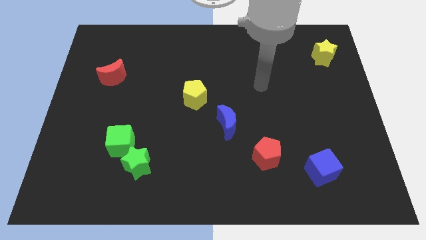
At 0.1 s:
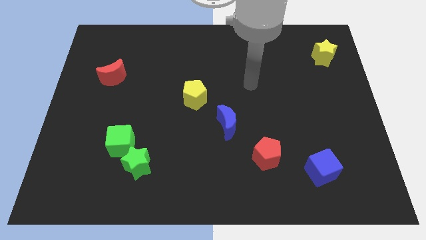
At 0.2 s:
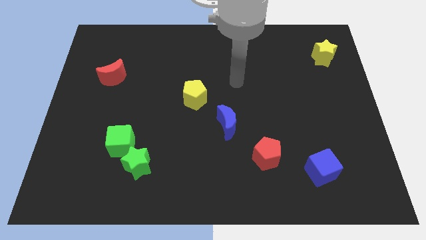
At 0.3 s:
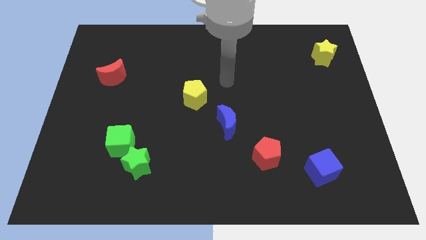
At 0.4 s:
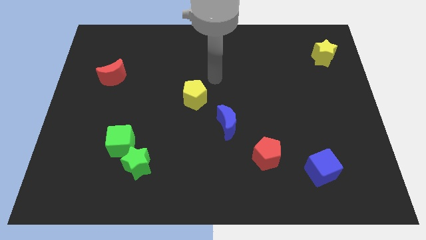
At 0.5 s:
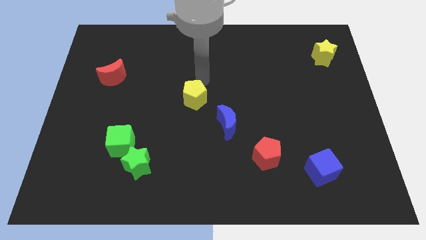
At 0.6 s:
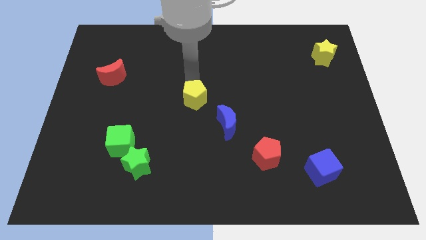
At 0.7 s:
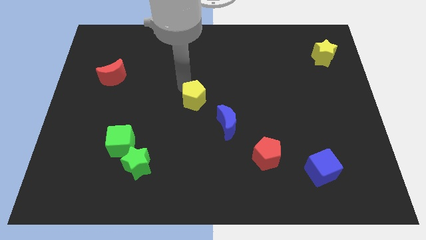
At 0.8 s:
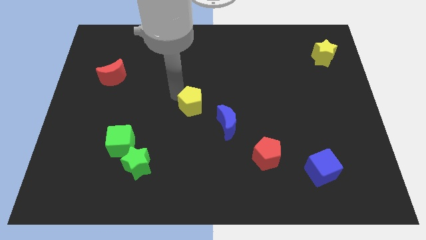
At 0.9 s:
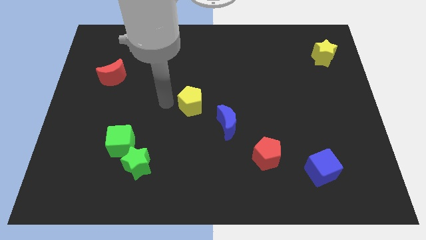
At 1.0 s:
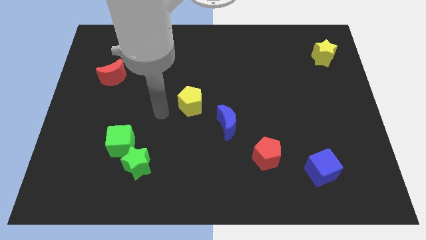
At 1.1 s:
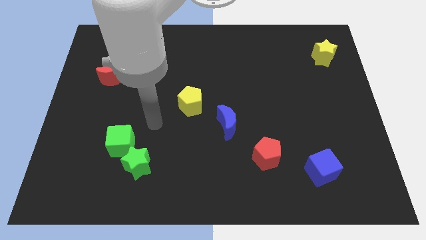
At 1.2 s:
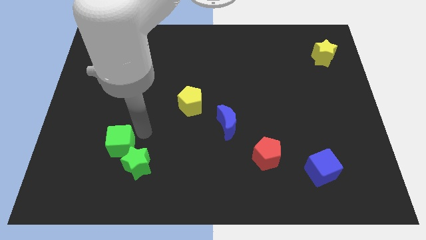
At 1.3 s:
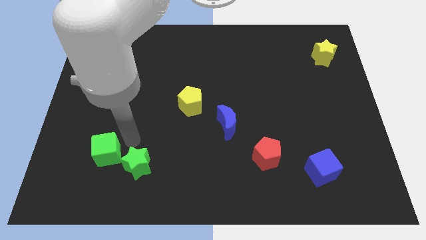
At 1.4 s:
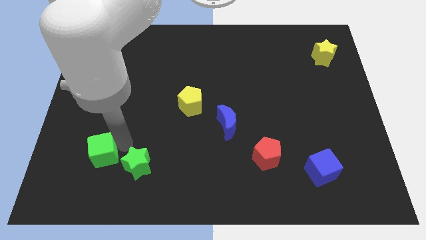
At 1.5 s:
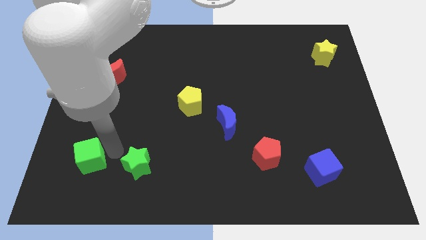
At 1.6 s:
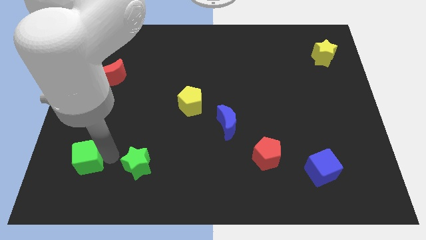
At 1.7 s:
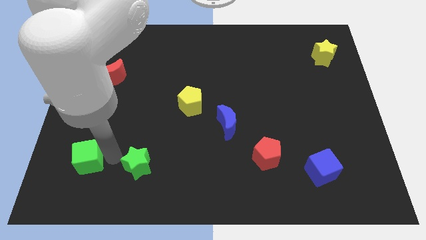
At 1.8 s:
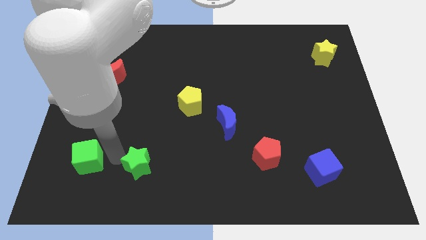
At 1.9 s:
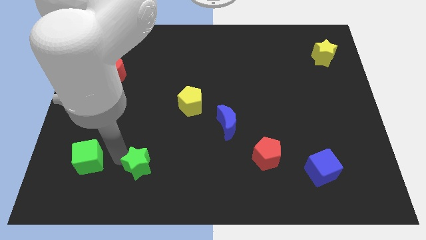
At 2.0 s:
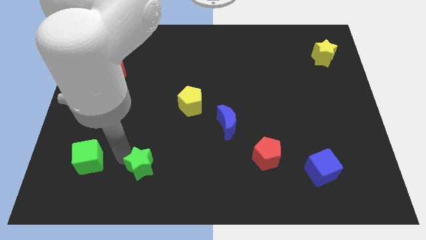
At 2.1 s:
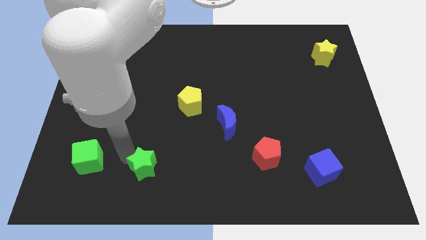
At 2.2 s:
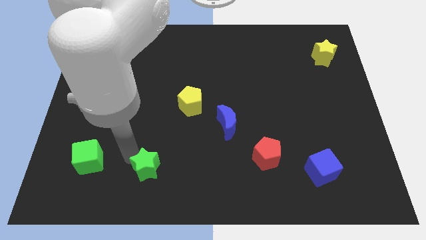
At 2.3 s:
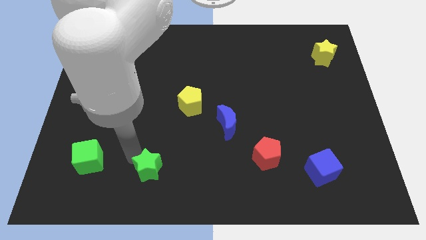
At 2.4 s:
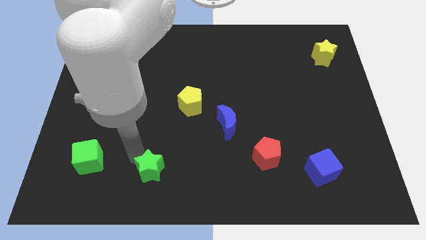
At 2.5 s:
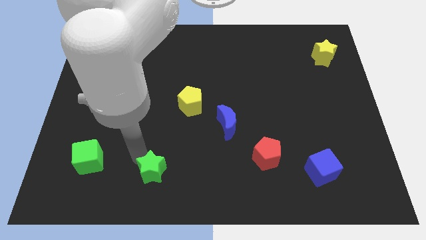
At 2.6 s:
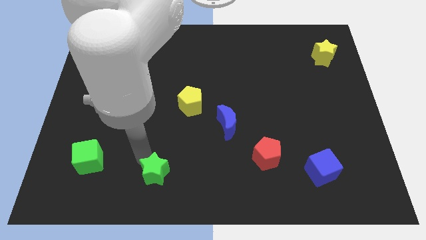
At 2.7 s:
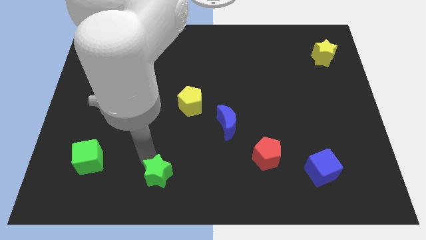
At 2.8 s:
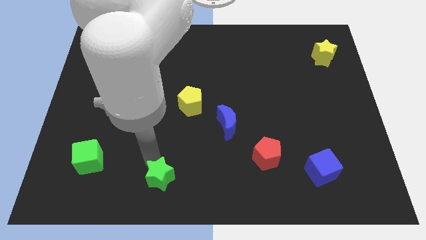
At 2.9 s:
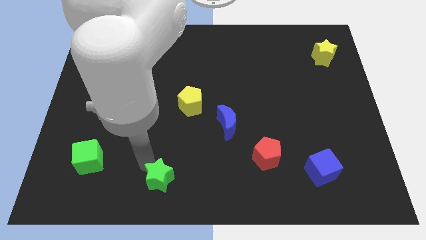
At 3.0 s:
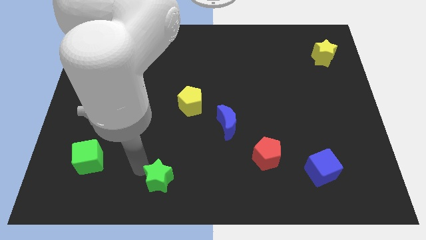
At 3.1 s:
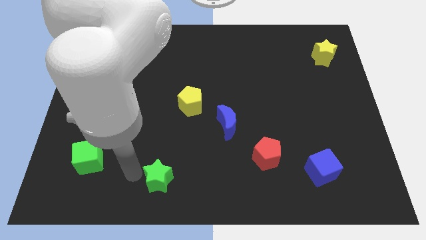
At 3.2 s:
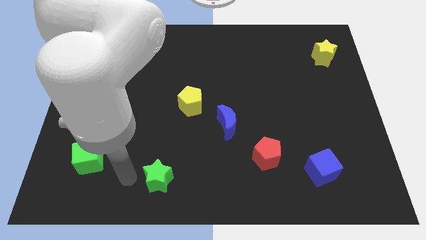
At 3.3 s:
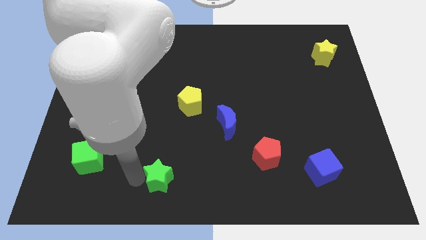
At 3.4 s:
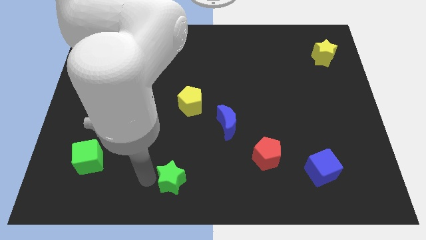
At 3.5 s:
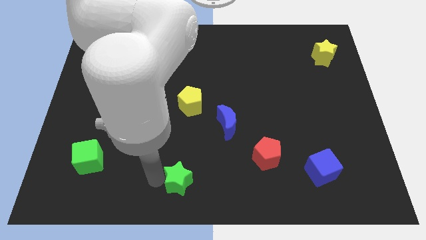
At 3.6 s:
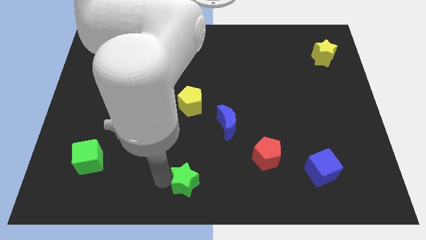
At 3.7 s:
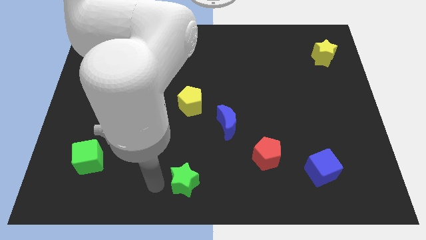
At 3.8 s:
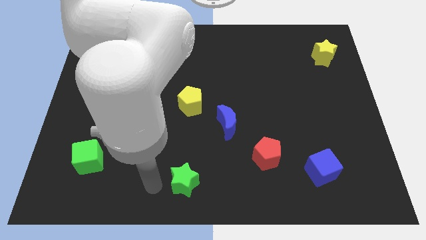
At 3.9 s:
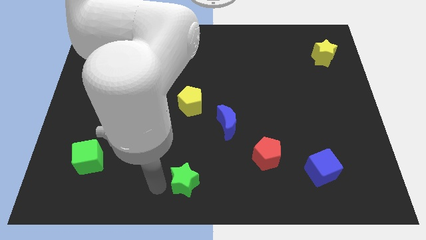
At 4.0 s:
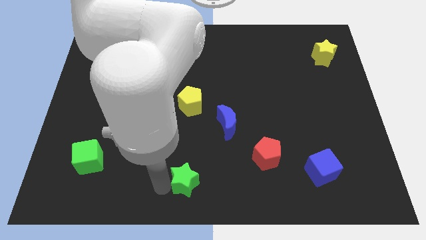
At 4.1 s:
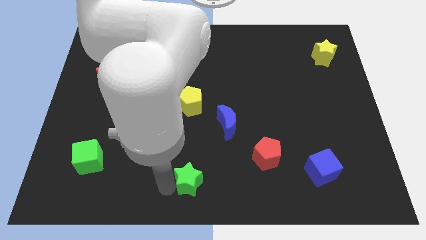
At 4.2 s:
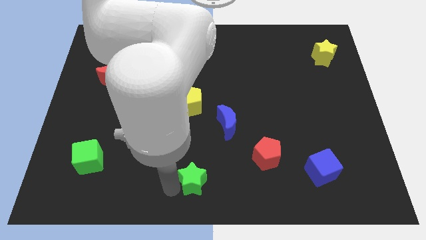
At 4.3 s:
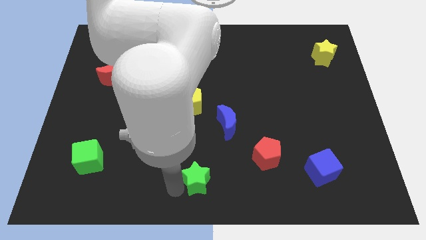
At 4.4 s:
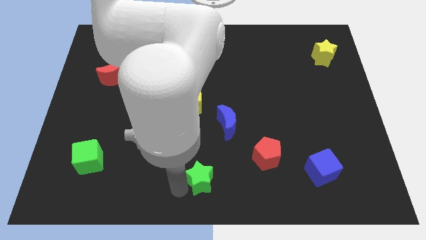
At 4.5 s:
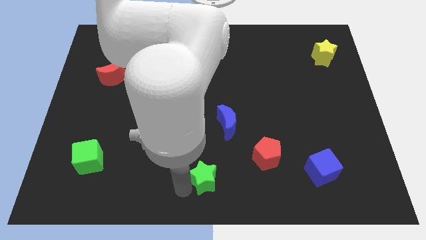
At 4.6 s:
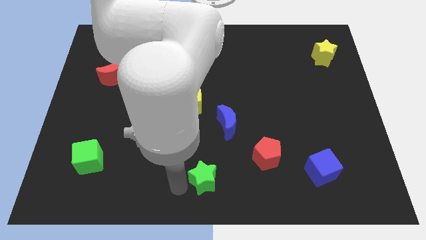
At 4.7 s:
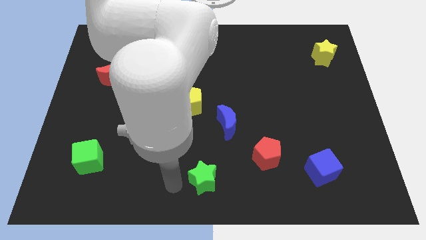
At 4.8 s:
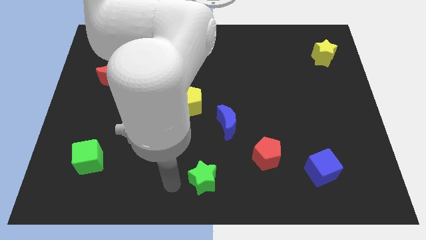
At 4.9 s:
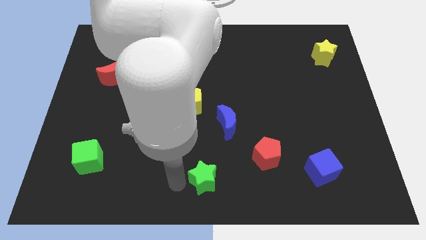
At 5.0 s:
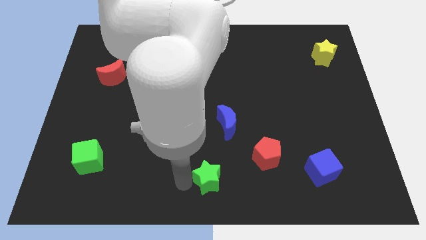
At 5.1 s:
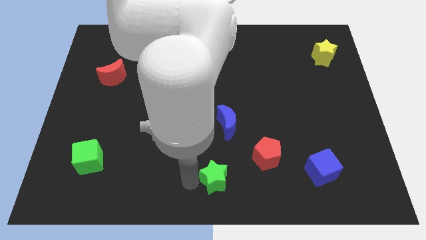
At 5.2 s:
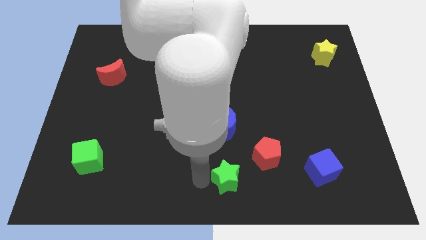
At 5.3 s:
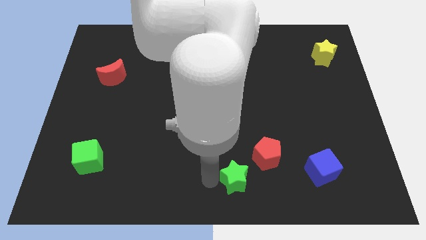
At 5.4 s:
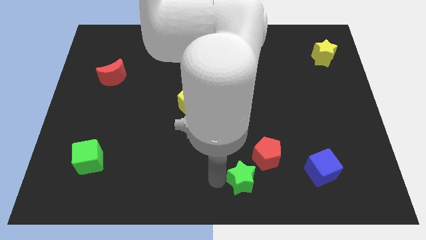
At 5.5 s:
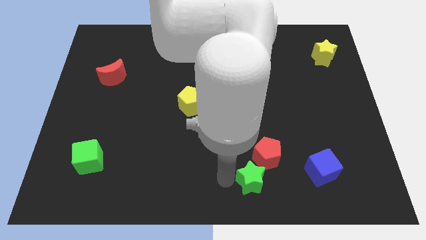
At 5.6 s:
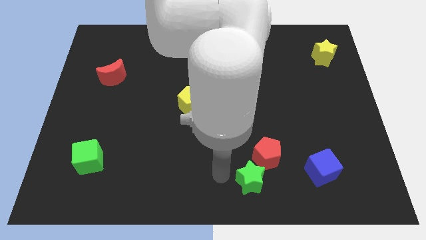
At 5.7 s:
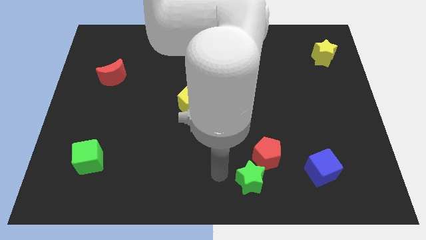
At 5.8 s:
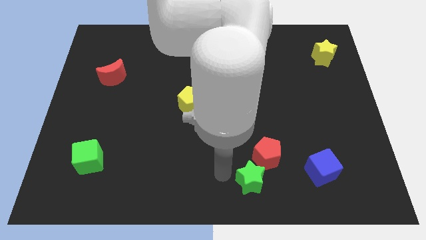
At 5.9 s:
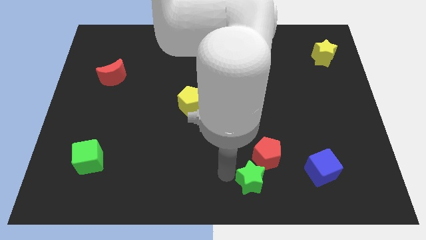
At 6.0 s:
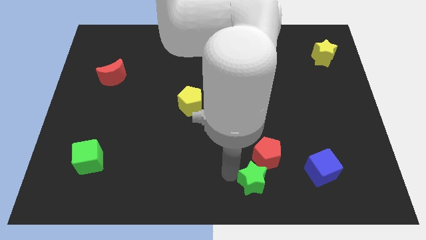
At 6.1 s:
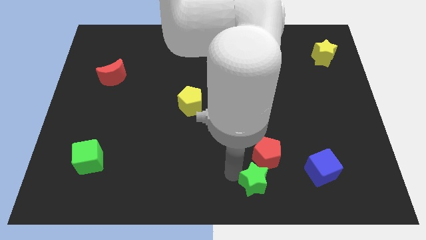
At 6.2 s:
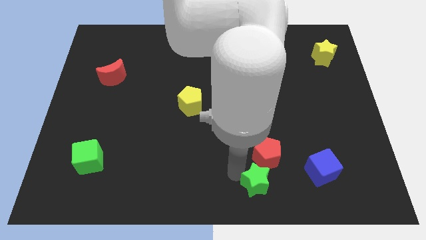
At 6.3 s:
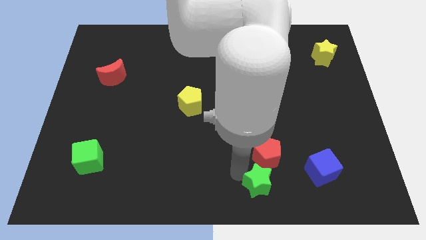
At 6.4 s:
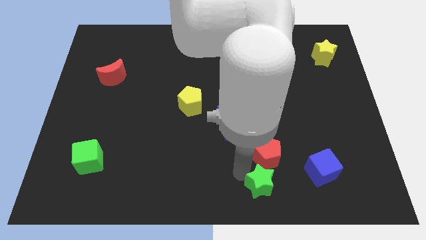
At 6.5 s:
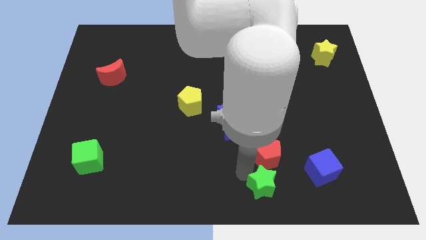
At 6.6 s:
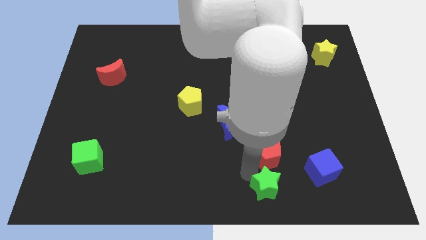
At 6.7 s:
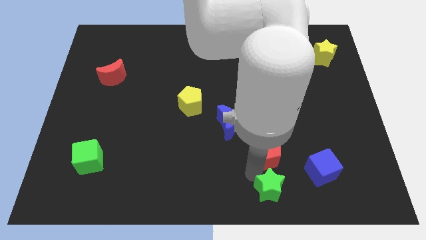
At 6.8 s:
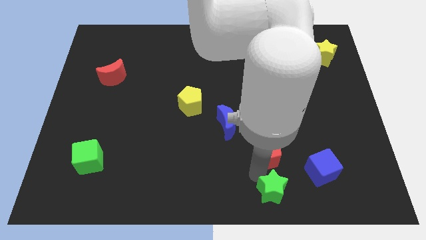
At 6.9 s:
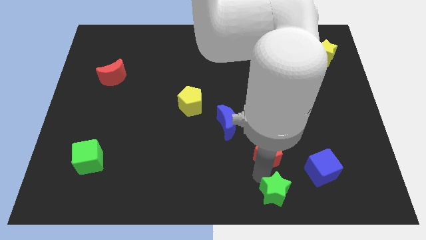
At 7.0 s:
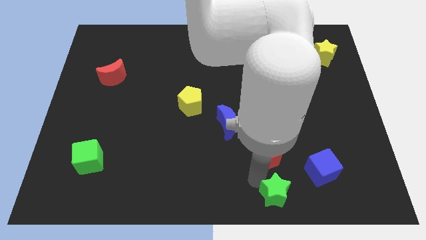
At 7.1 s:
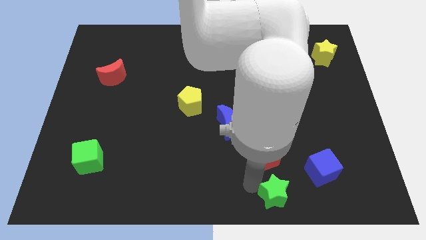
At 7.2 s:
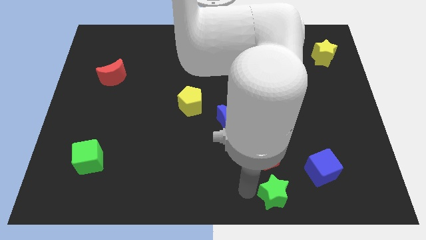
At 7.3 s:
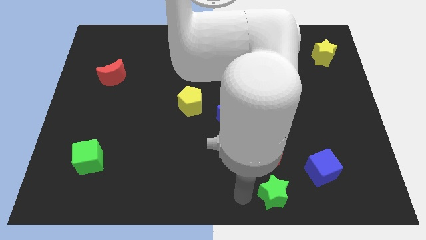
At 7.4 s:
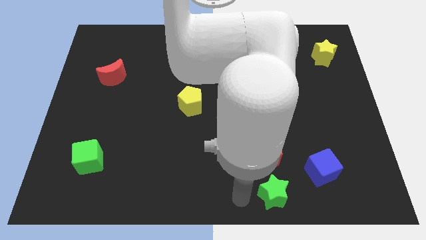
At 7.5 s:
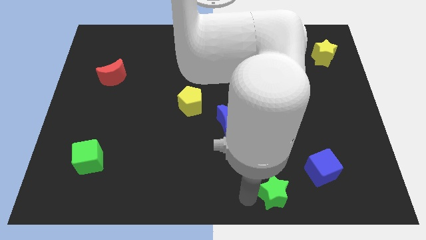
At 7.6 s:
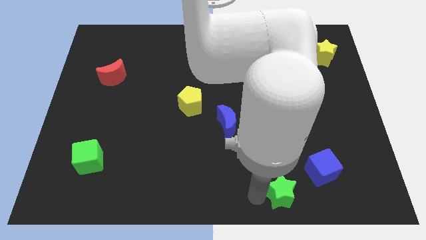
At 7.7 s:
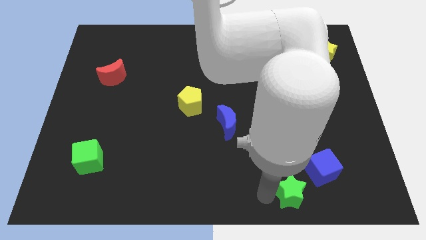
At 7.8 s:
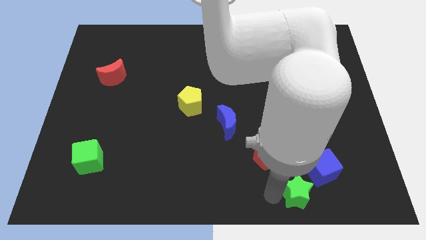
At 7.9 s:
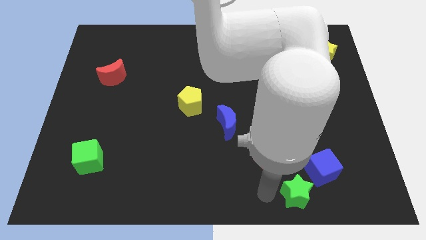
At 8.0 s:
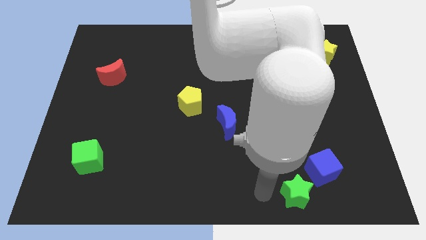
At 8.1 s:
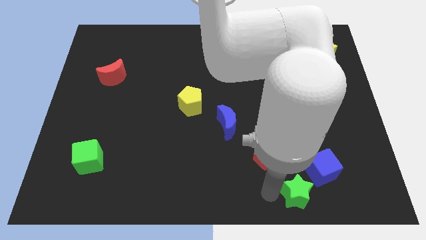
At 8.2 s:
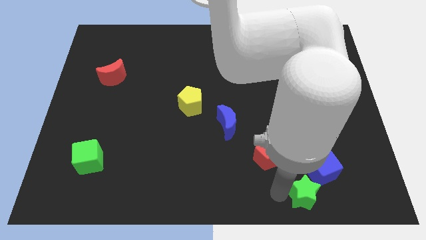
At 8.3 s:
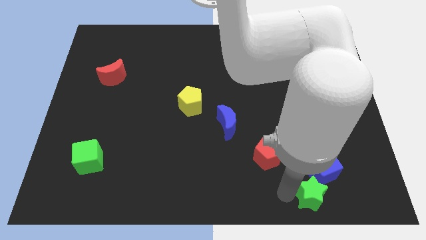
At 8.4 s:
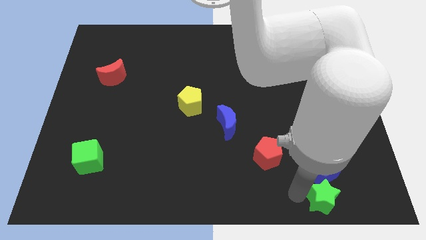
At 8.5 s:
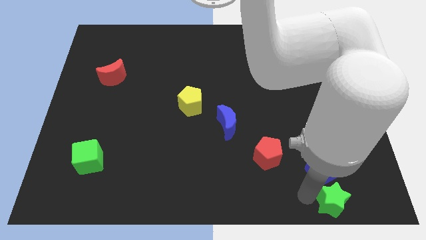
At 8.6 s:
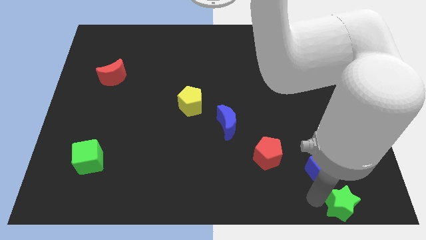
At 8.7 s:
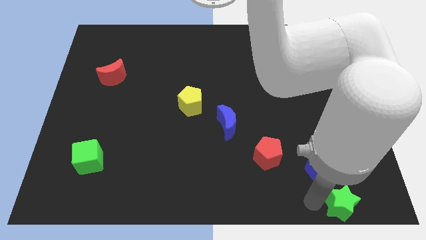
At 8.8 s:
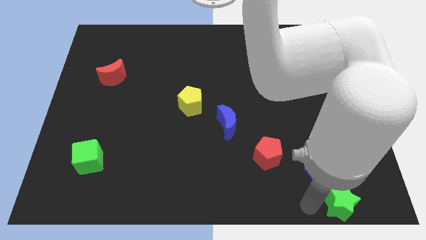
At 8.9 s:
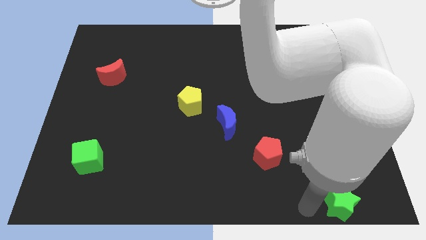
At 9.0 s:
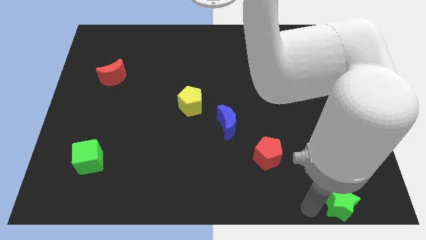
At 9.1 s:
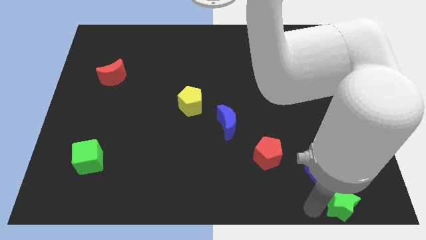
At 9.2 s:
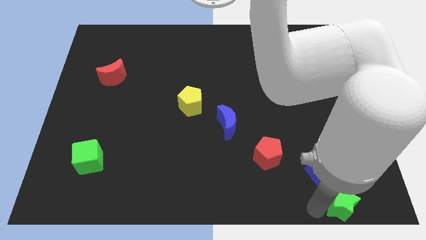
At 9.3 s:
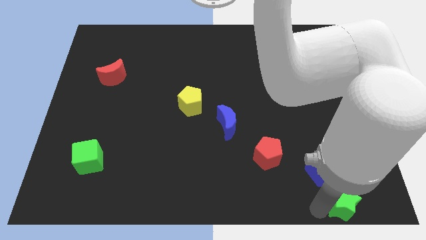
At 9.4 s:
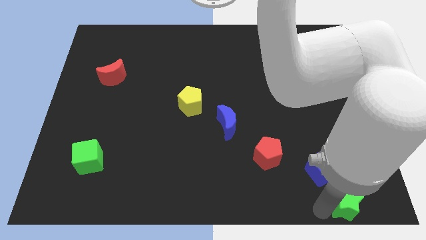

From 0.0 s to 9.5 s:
push the green star to the bottom right corner
